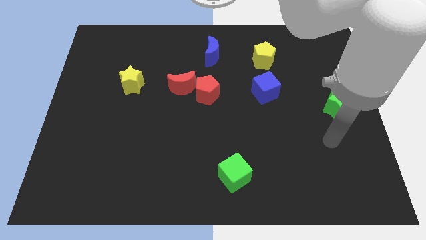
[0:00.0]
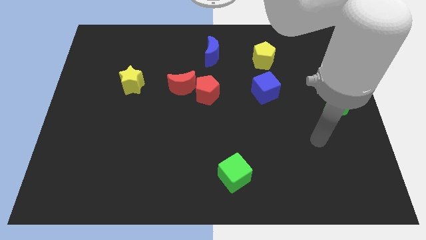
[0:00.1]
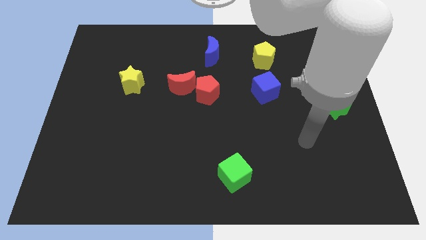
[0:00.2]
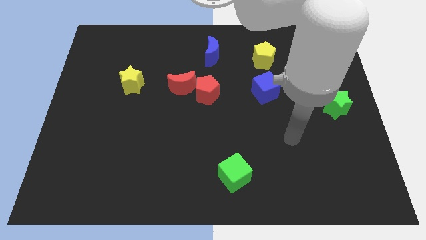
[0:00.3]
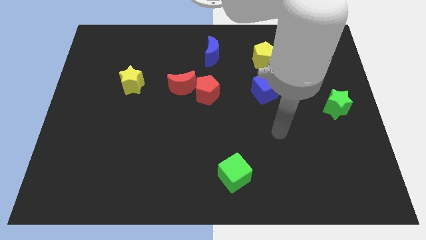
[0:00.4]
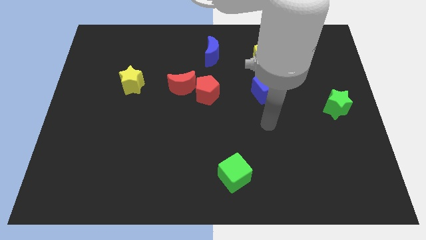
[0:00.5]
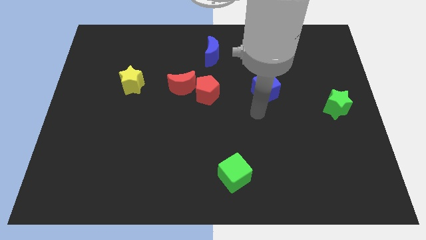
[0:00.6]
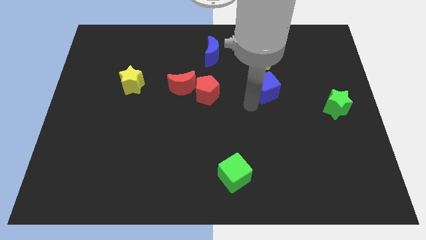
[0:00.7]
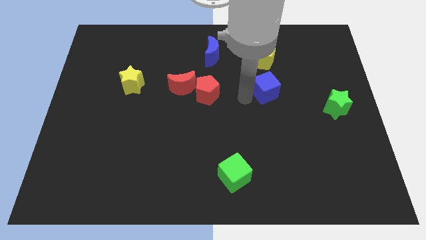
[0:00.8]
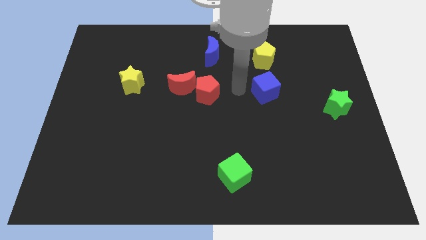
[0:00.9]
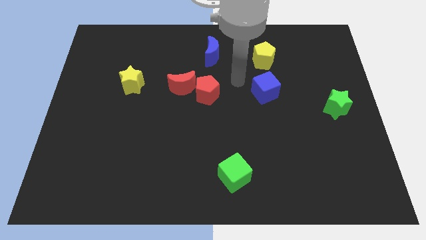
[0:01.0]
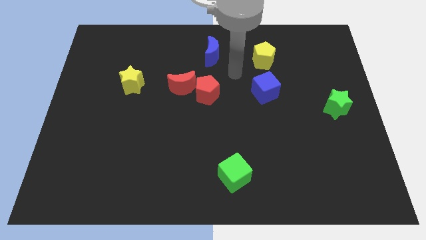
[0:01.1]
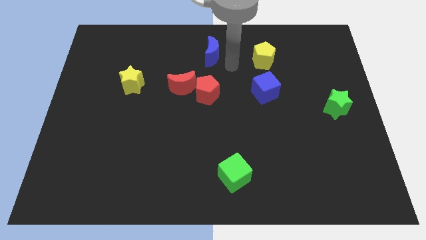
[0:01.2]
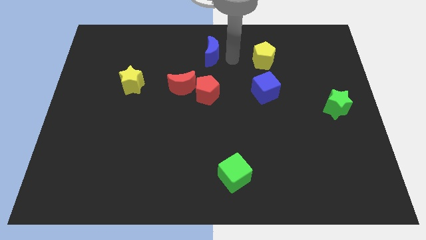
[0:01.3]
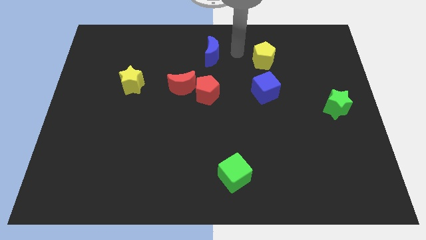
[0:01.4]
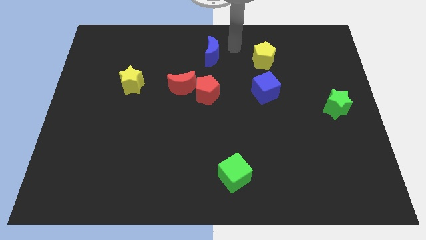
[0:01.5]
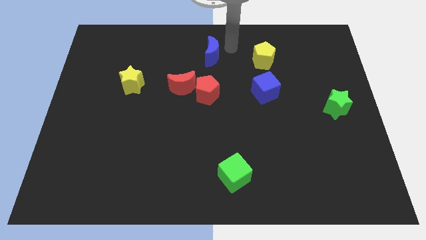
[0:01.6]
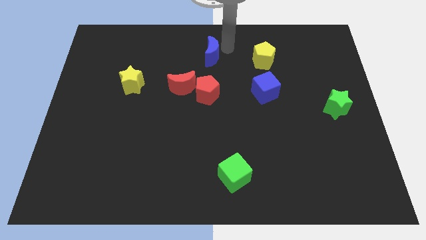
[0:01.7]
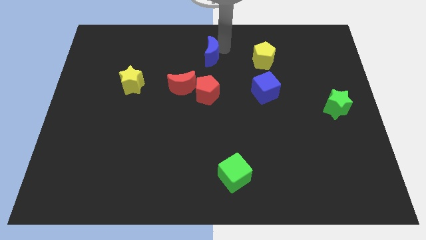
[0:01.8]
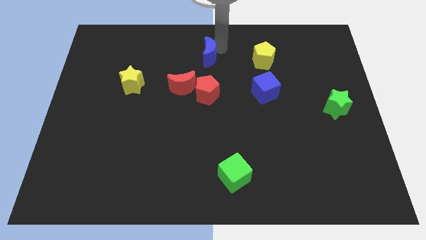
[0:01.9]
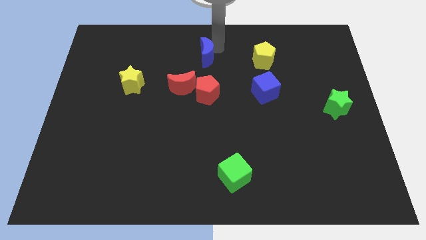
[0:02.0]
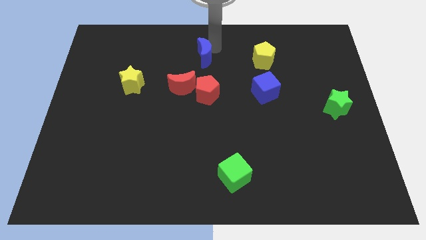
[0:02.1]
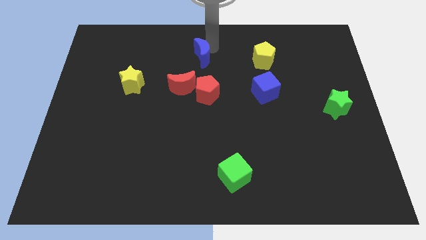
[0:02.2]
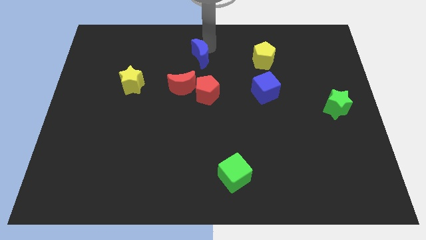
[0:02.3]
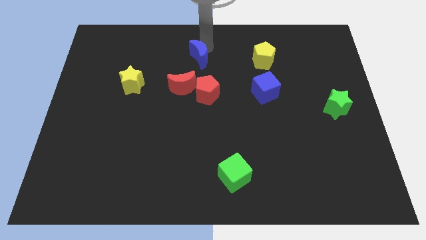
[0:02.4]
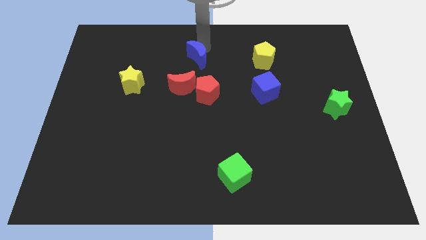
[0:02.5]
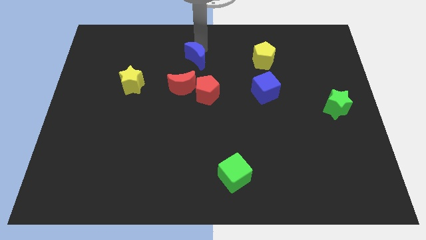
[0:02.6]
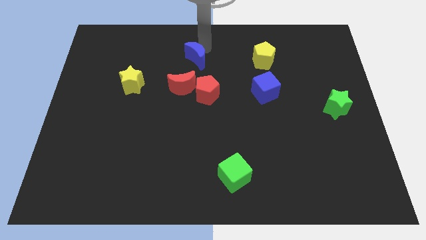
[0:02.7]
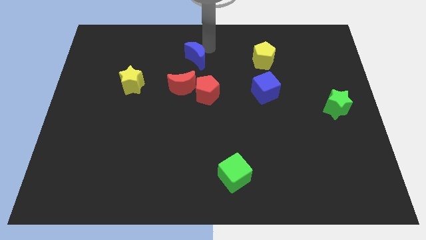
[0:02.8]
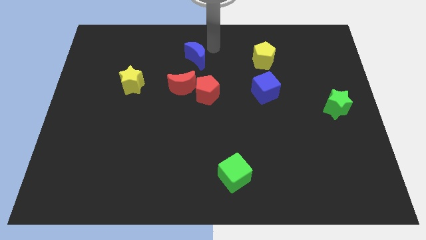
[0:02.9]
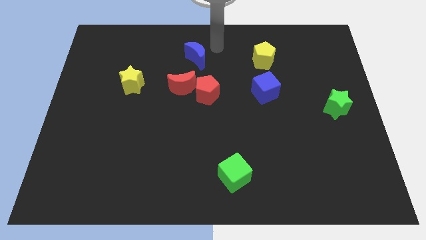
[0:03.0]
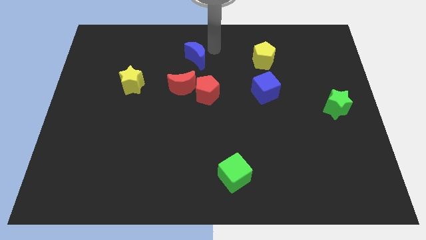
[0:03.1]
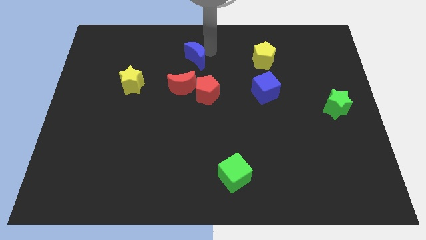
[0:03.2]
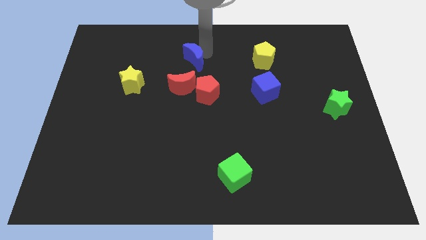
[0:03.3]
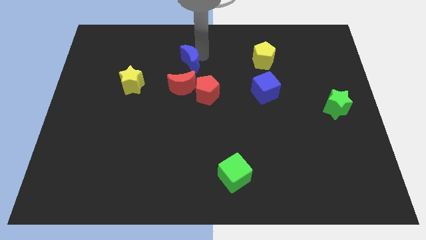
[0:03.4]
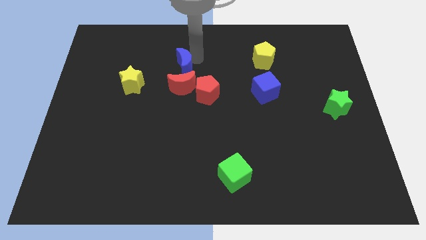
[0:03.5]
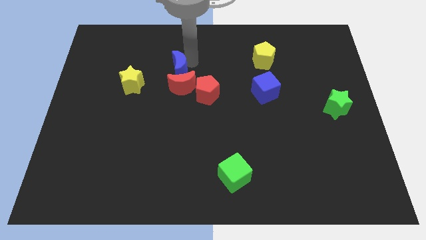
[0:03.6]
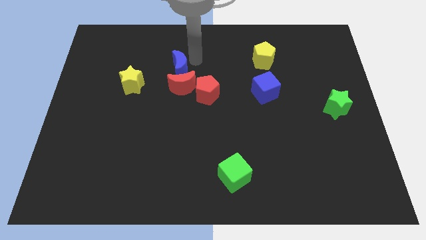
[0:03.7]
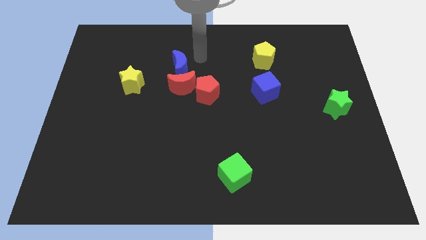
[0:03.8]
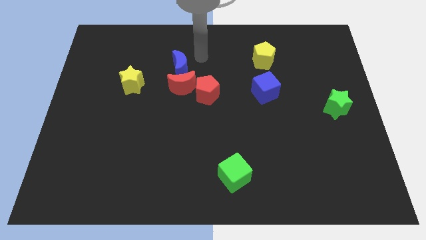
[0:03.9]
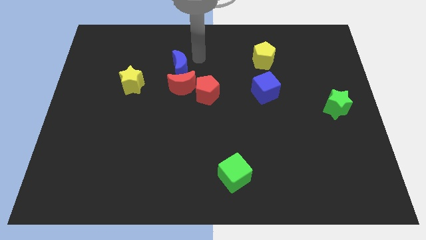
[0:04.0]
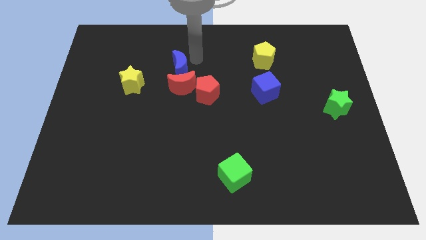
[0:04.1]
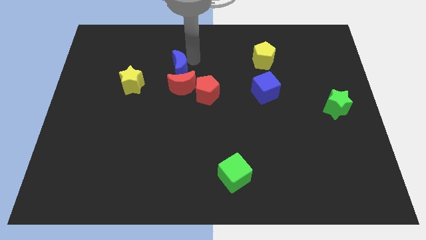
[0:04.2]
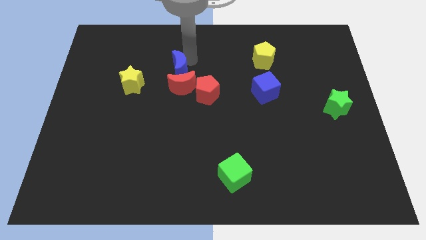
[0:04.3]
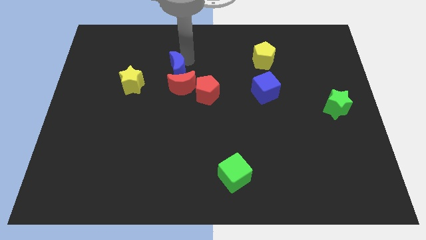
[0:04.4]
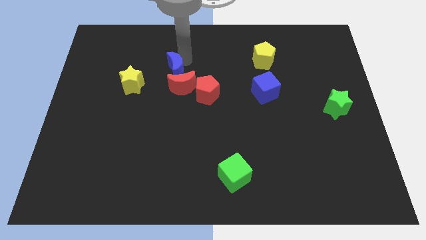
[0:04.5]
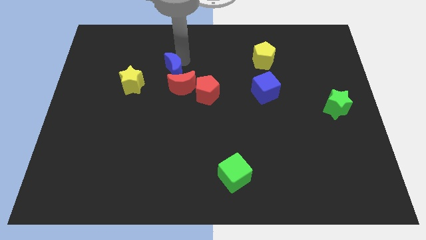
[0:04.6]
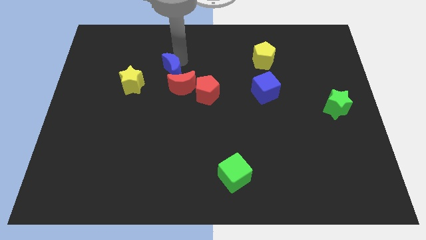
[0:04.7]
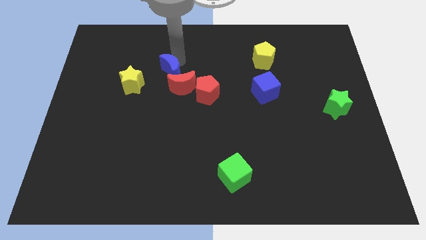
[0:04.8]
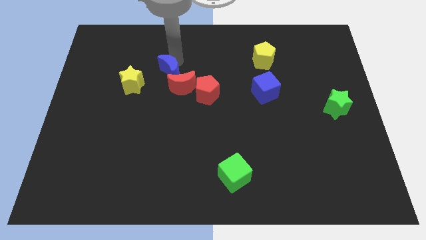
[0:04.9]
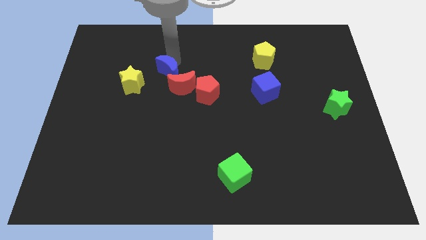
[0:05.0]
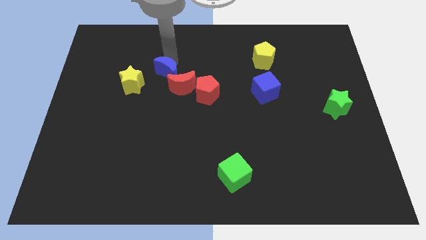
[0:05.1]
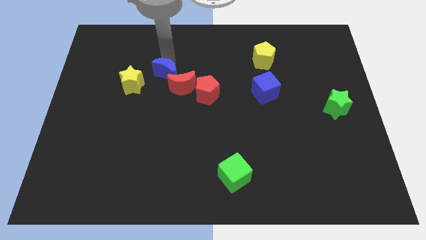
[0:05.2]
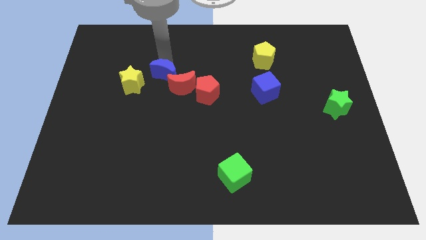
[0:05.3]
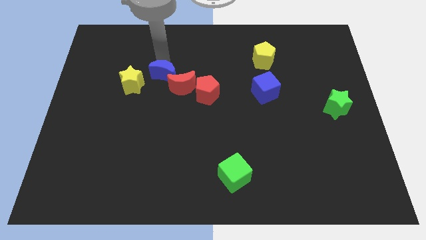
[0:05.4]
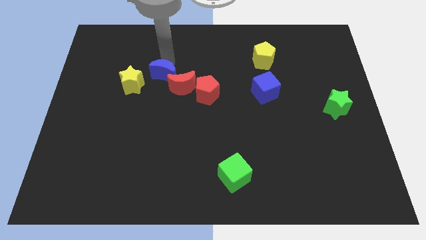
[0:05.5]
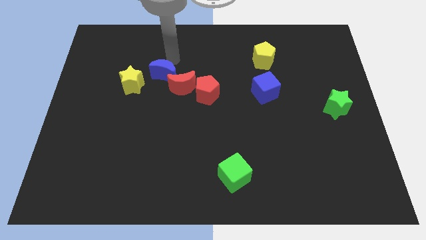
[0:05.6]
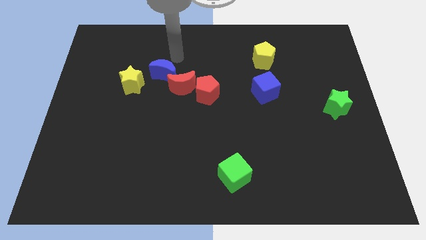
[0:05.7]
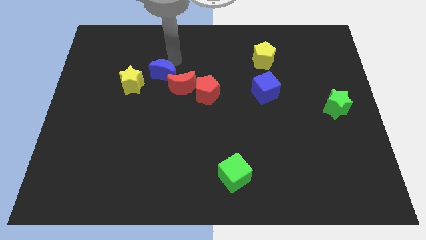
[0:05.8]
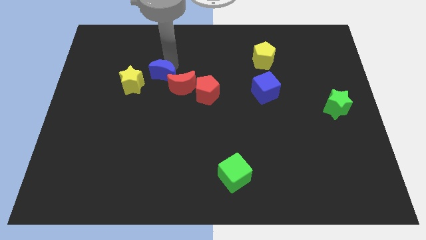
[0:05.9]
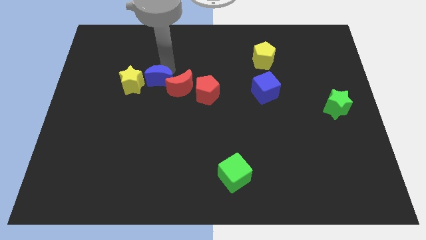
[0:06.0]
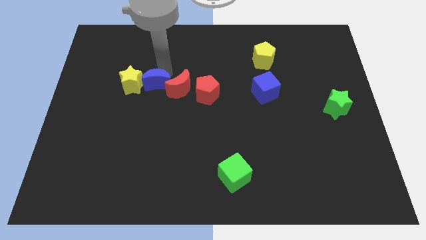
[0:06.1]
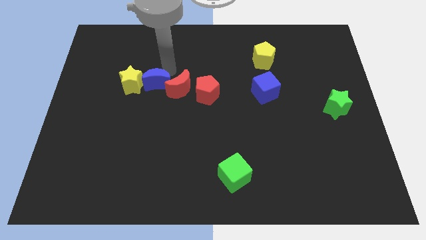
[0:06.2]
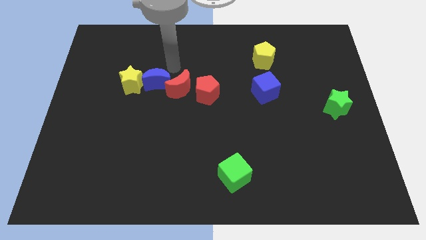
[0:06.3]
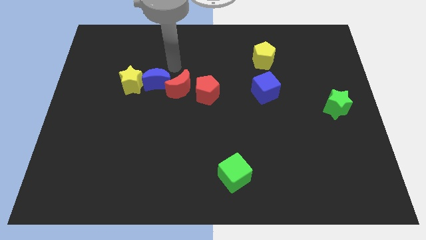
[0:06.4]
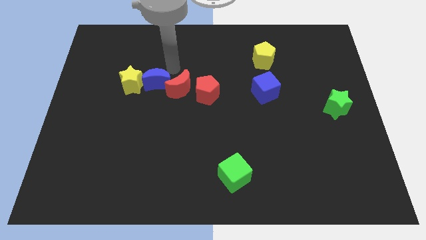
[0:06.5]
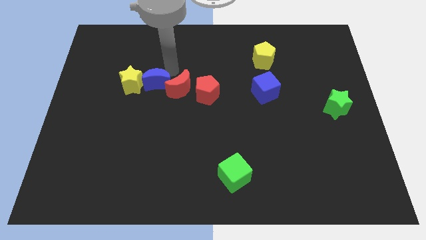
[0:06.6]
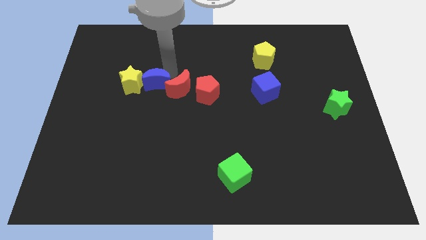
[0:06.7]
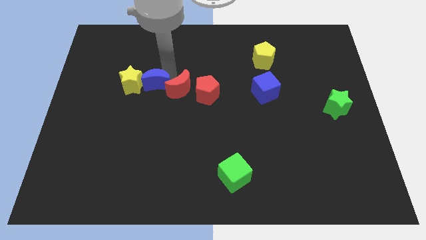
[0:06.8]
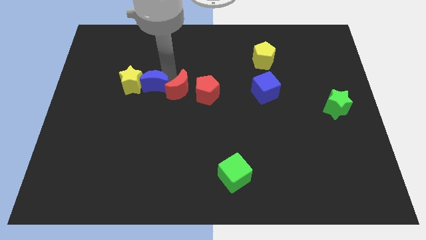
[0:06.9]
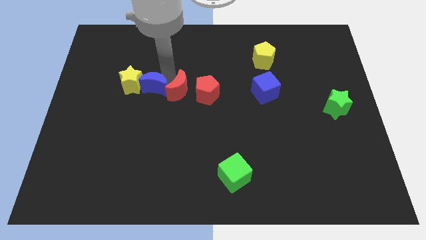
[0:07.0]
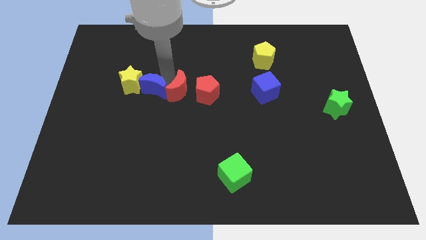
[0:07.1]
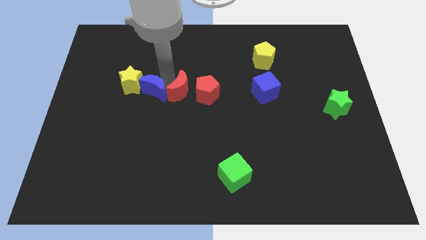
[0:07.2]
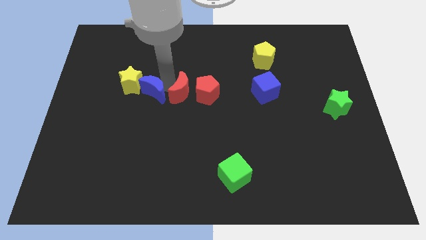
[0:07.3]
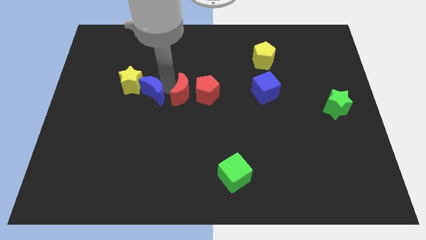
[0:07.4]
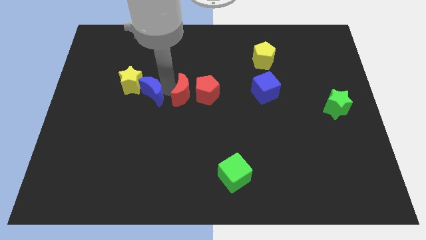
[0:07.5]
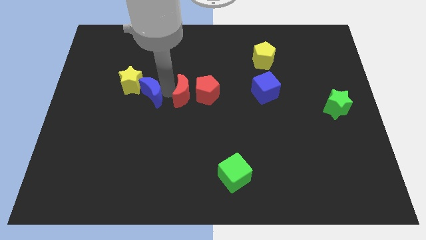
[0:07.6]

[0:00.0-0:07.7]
slide the blue moon down and left

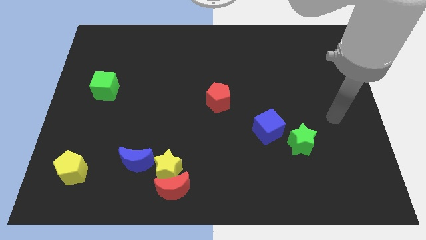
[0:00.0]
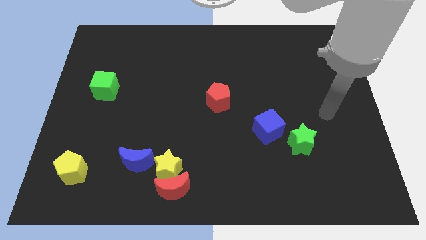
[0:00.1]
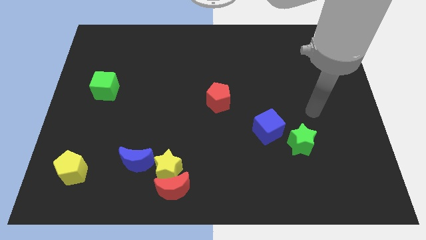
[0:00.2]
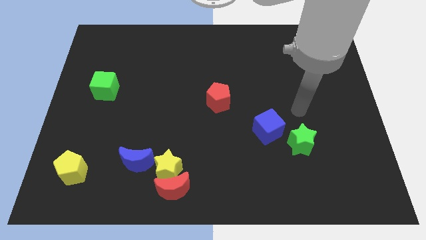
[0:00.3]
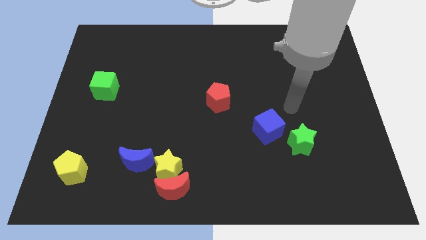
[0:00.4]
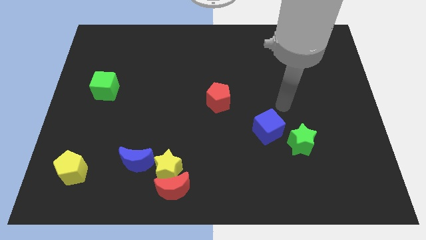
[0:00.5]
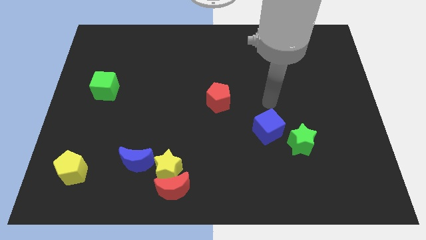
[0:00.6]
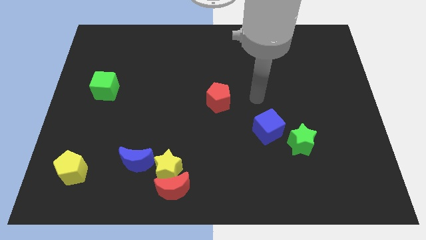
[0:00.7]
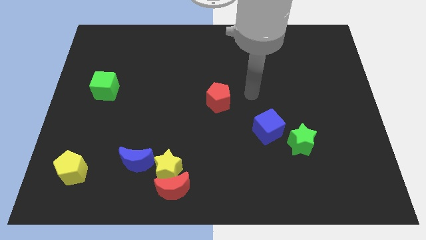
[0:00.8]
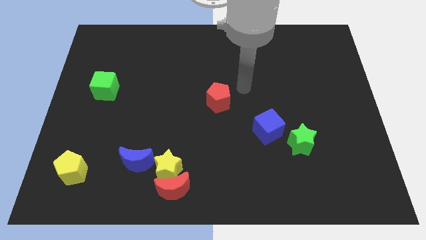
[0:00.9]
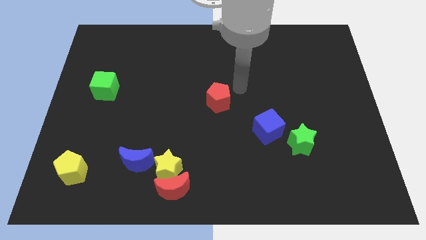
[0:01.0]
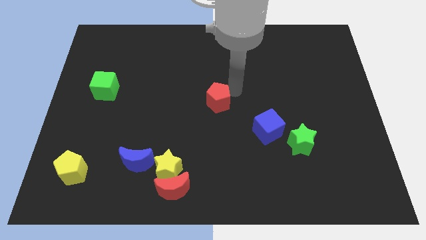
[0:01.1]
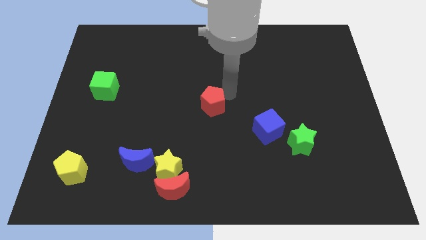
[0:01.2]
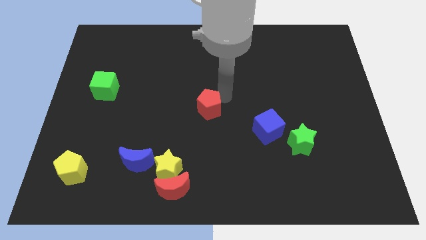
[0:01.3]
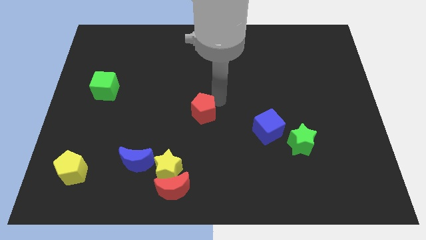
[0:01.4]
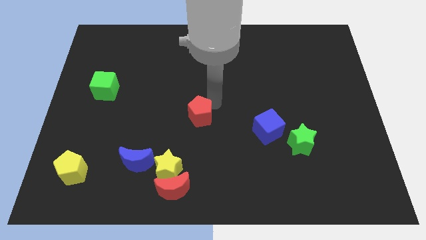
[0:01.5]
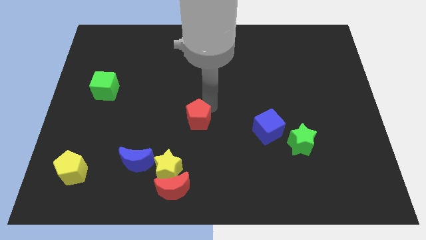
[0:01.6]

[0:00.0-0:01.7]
push the red pentagon down and left a little
